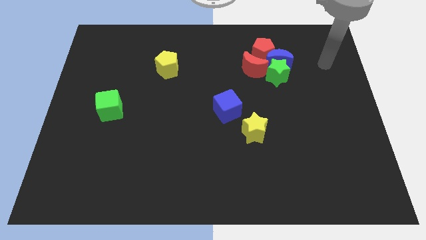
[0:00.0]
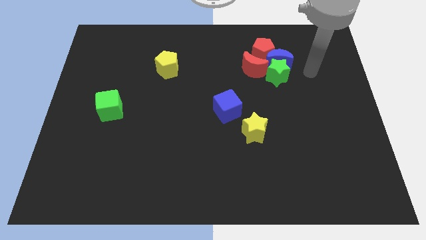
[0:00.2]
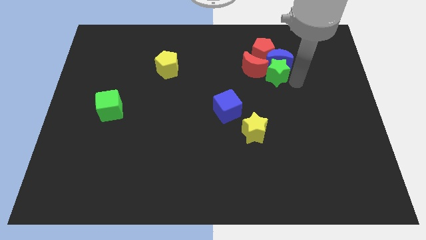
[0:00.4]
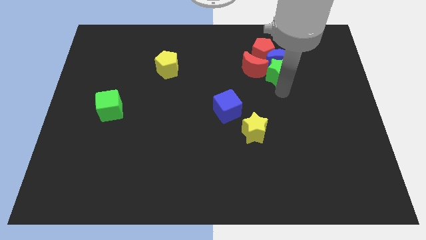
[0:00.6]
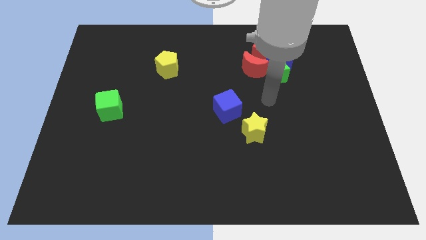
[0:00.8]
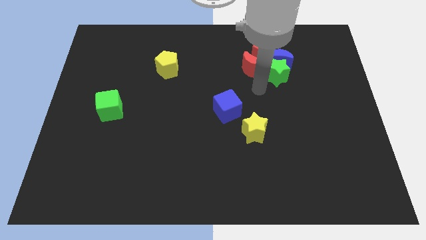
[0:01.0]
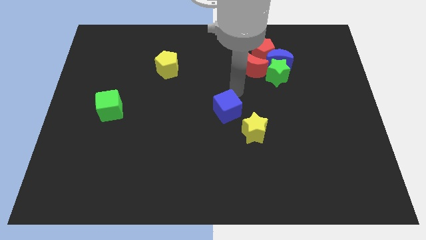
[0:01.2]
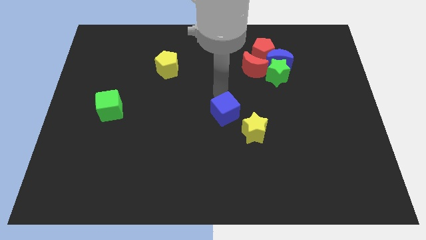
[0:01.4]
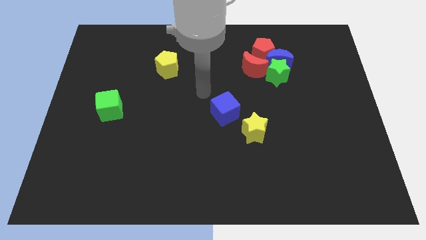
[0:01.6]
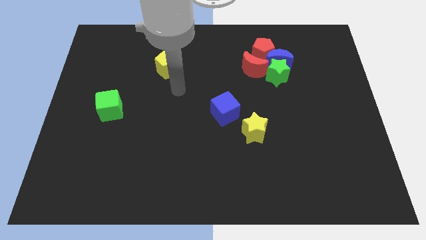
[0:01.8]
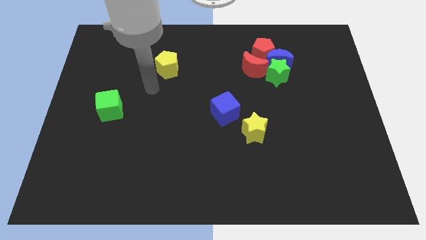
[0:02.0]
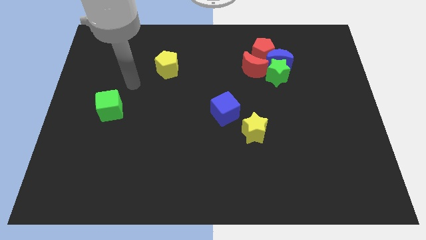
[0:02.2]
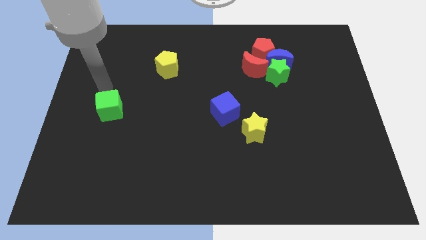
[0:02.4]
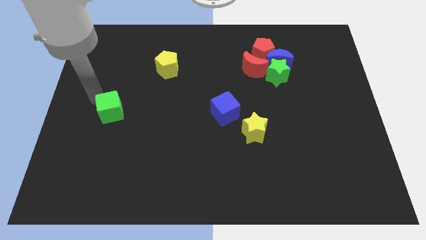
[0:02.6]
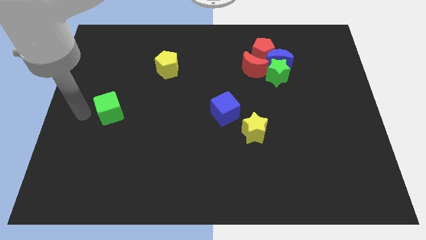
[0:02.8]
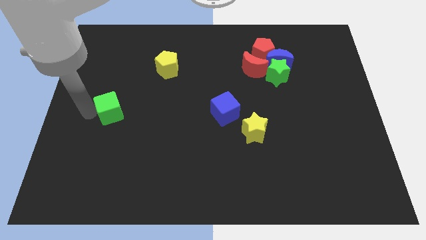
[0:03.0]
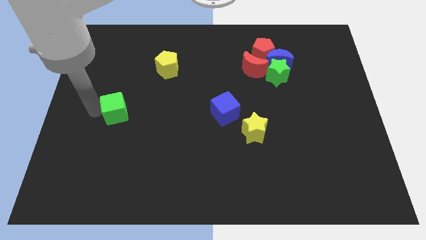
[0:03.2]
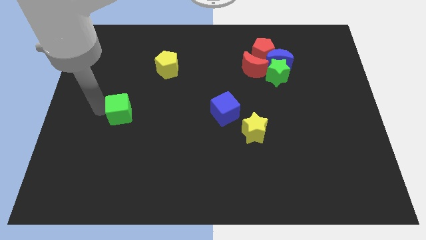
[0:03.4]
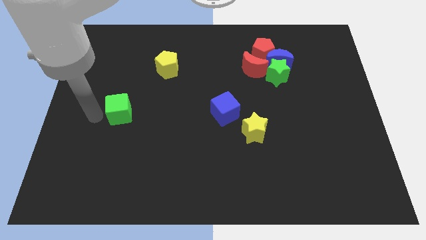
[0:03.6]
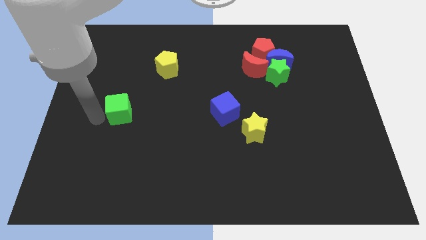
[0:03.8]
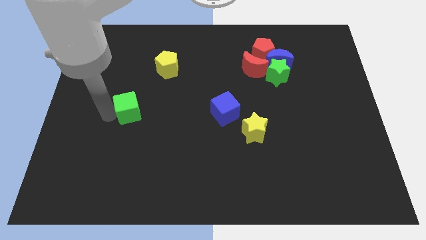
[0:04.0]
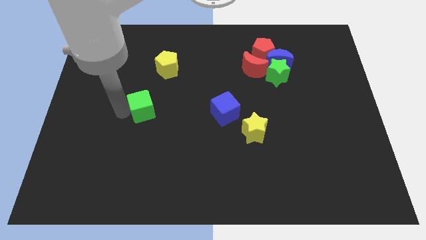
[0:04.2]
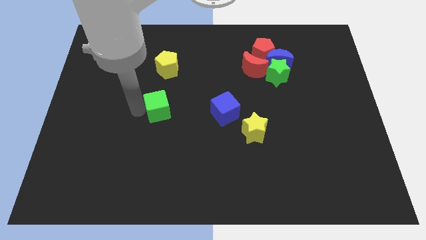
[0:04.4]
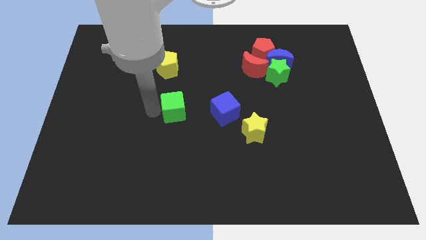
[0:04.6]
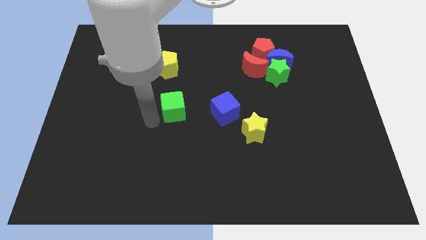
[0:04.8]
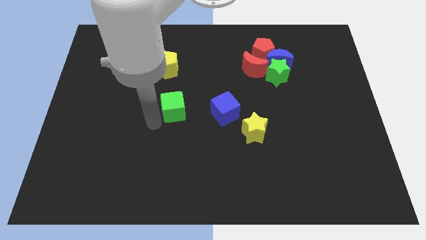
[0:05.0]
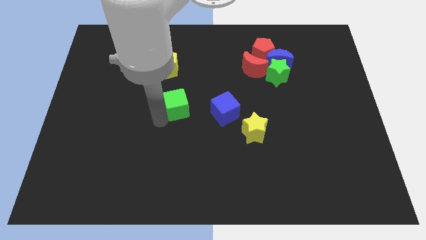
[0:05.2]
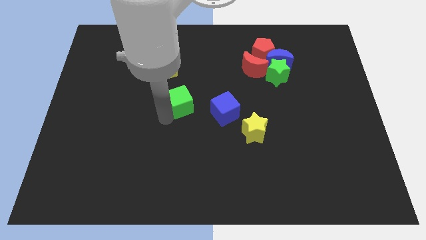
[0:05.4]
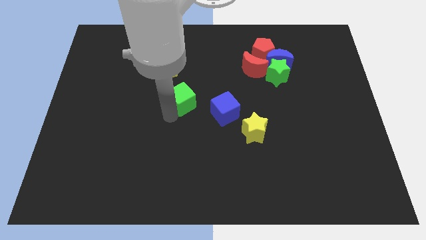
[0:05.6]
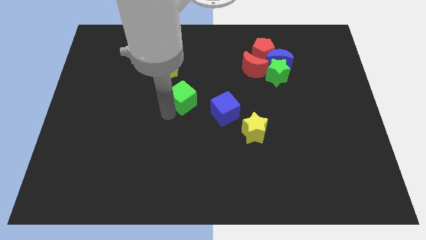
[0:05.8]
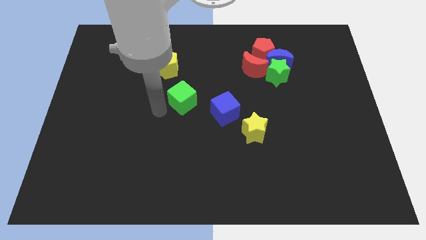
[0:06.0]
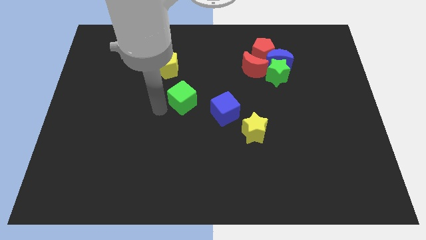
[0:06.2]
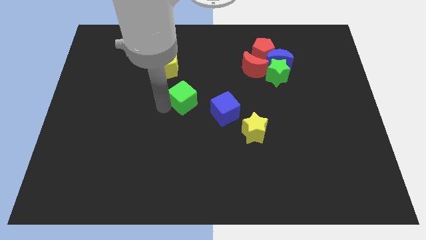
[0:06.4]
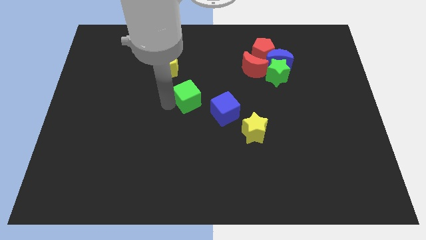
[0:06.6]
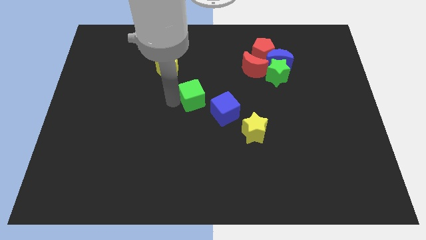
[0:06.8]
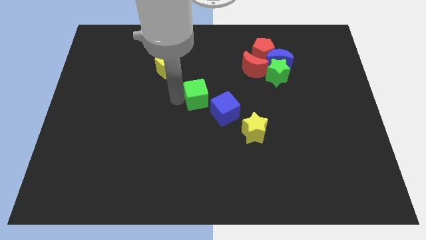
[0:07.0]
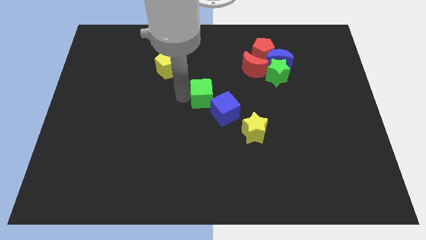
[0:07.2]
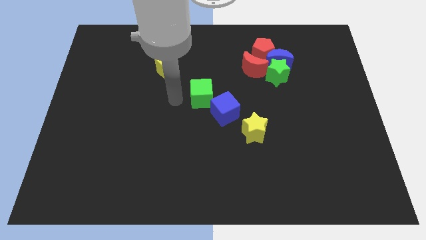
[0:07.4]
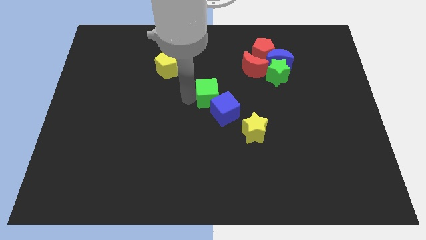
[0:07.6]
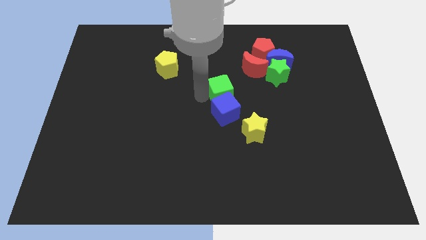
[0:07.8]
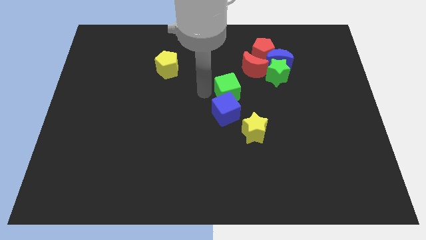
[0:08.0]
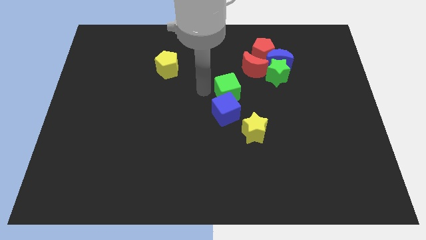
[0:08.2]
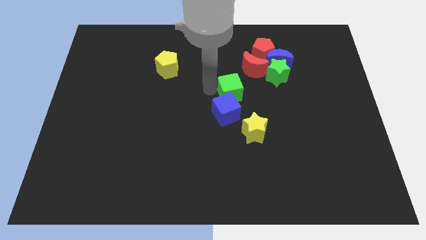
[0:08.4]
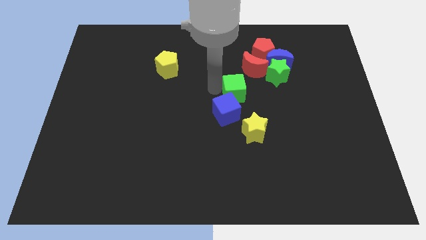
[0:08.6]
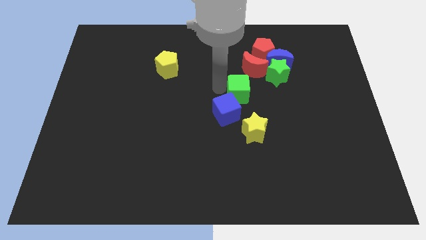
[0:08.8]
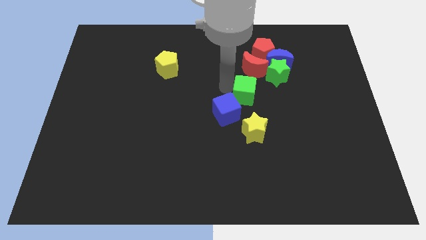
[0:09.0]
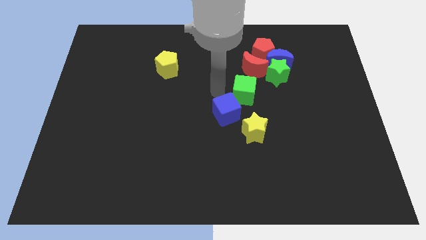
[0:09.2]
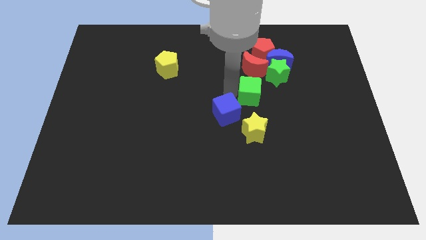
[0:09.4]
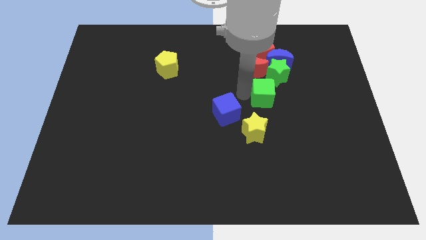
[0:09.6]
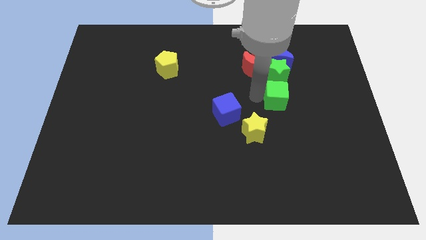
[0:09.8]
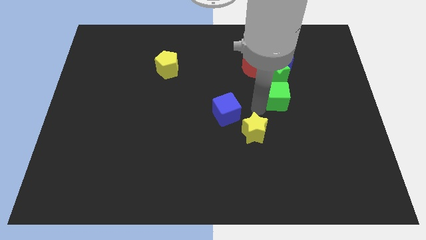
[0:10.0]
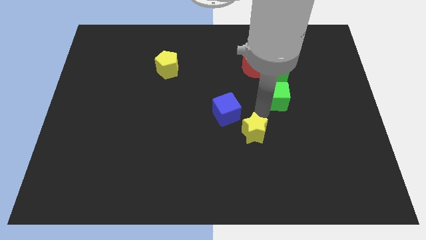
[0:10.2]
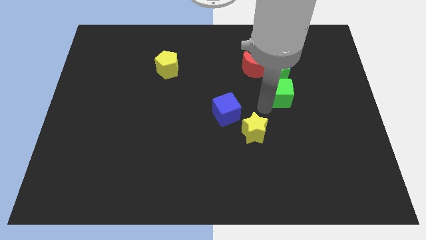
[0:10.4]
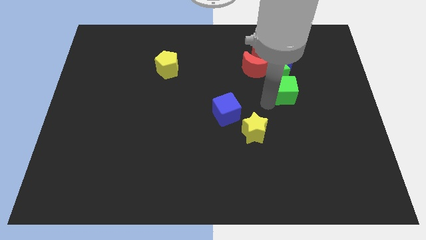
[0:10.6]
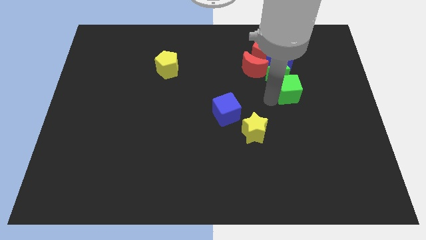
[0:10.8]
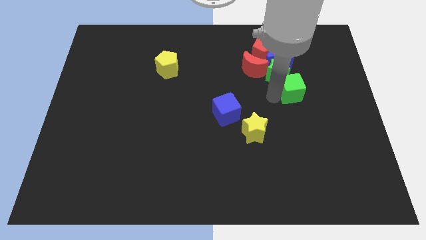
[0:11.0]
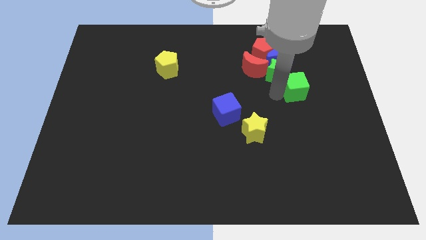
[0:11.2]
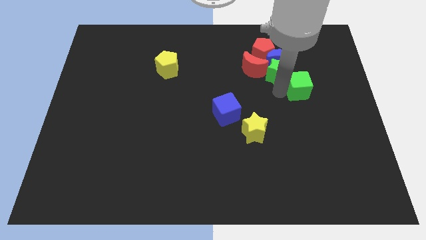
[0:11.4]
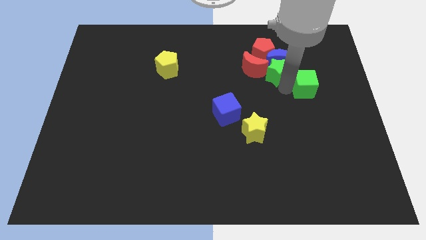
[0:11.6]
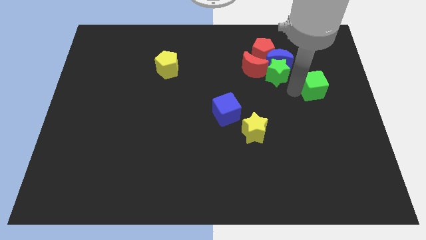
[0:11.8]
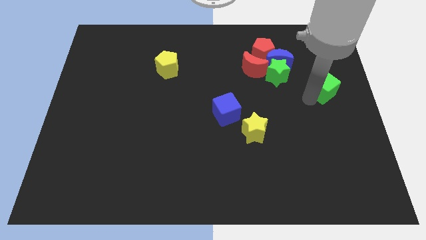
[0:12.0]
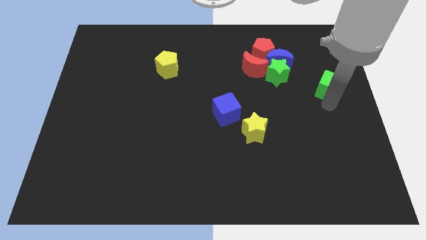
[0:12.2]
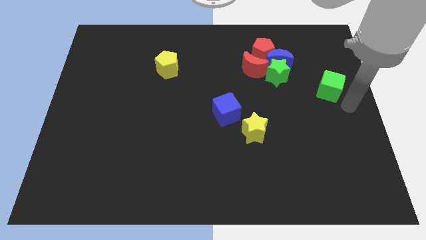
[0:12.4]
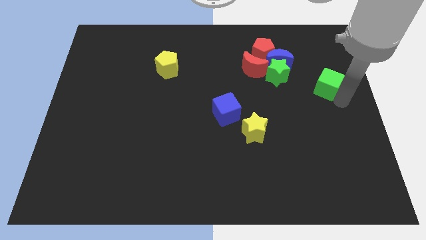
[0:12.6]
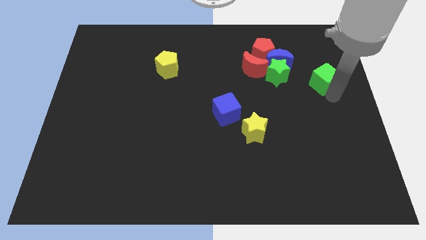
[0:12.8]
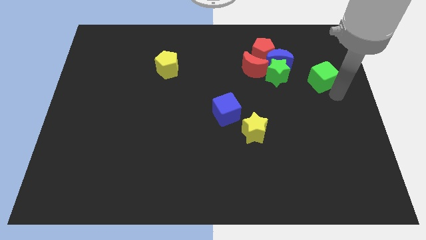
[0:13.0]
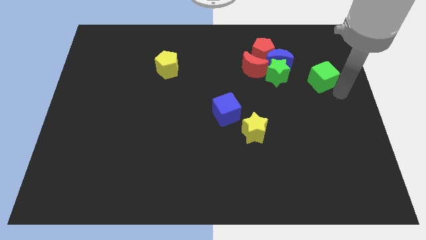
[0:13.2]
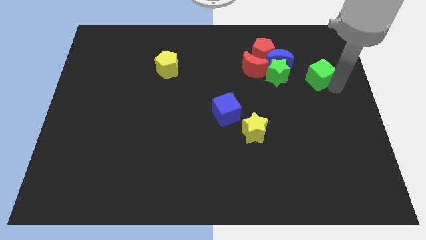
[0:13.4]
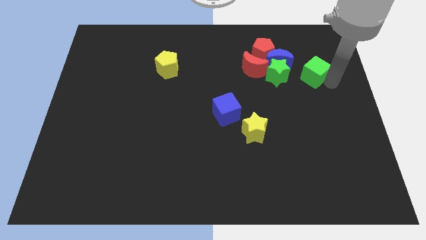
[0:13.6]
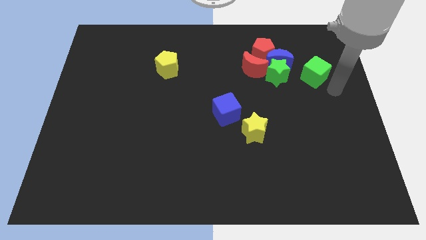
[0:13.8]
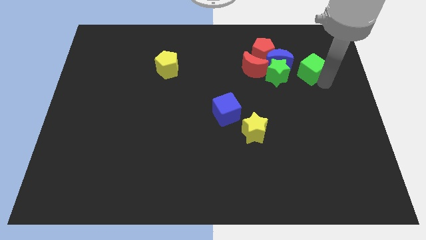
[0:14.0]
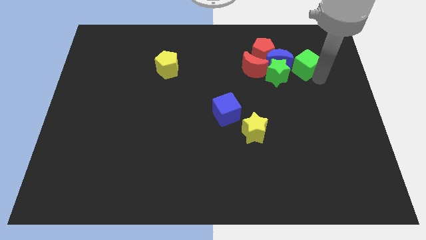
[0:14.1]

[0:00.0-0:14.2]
push the green cube to the top right side of the green star
